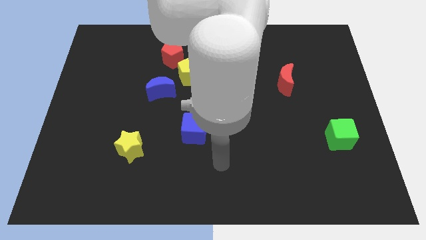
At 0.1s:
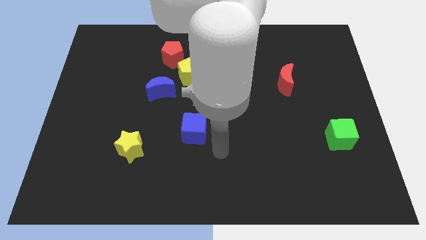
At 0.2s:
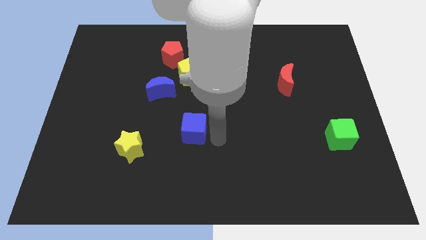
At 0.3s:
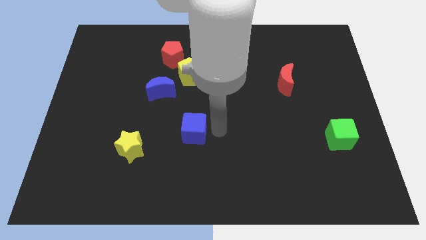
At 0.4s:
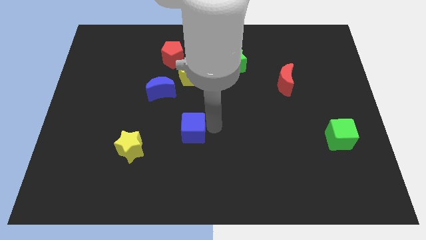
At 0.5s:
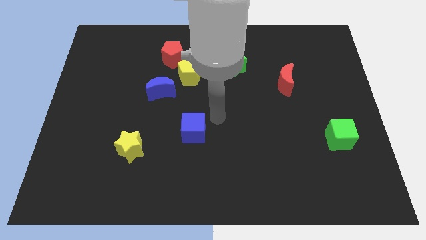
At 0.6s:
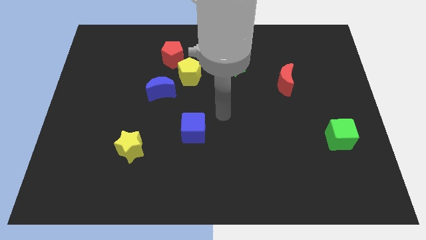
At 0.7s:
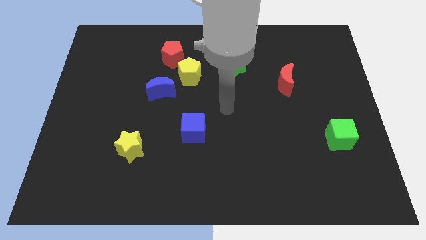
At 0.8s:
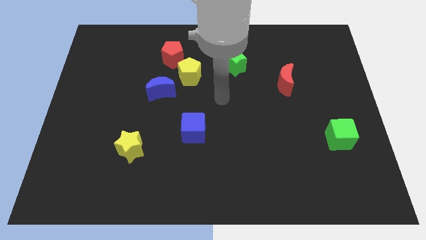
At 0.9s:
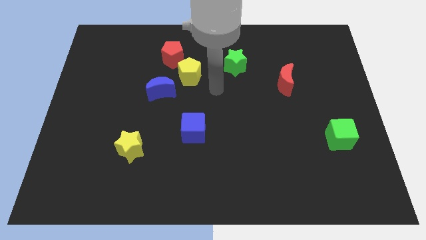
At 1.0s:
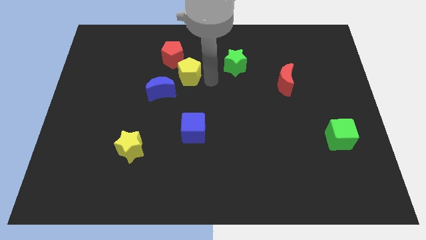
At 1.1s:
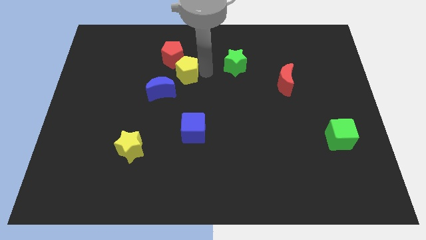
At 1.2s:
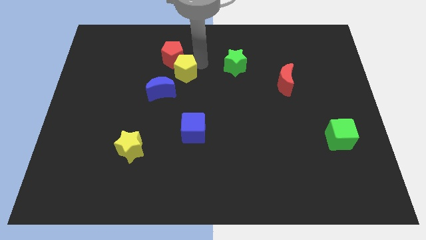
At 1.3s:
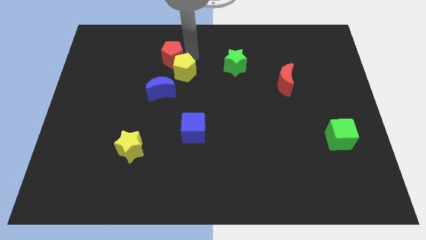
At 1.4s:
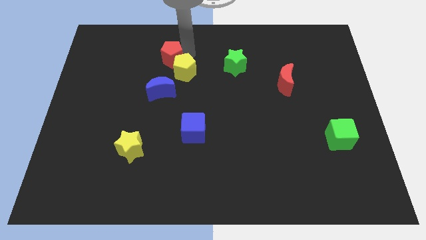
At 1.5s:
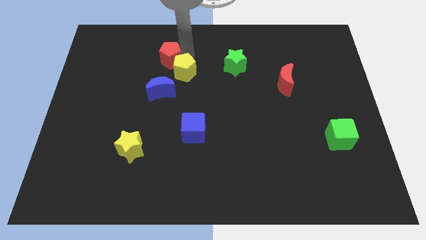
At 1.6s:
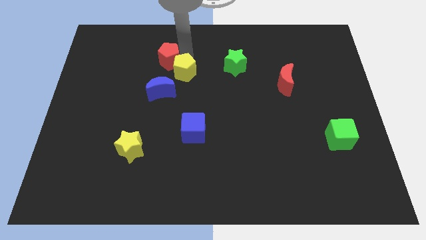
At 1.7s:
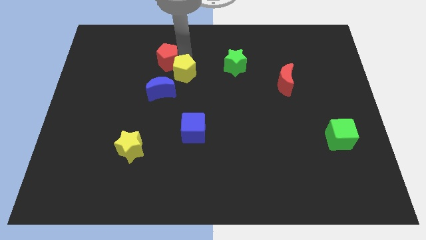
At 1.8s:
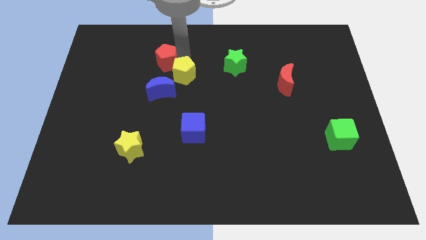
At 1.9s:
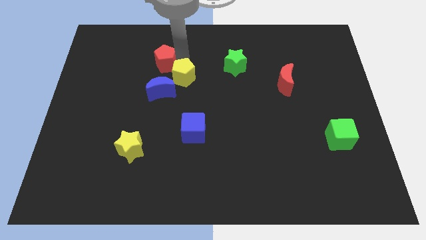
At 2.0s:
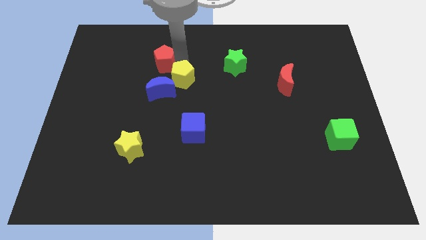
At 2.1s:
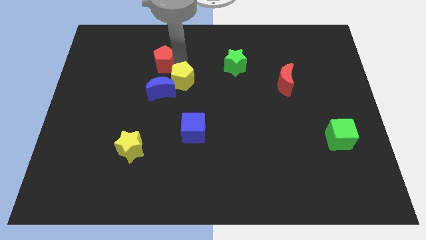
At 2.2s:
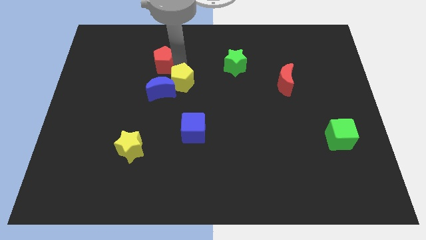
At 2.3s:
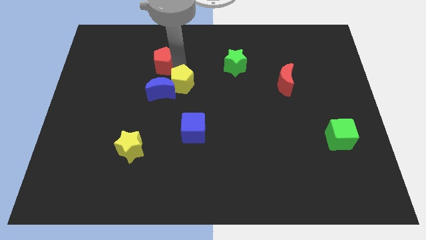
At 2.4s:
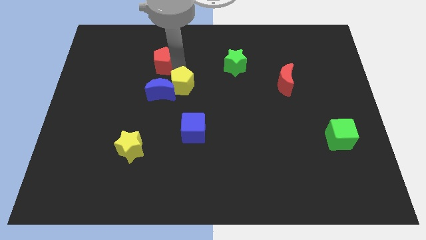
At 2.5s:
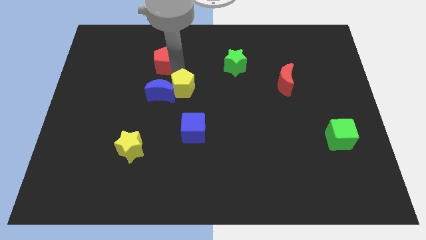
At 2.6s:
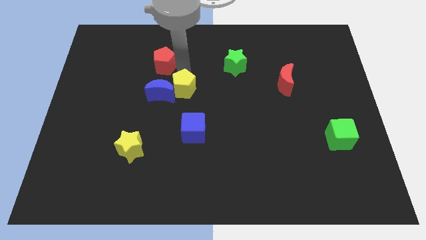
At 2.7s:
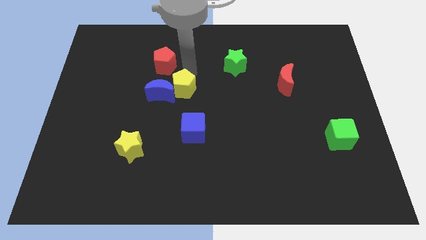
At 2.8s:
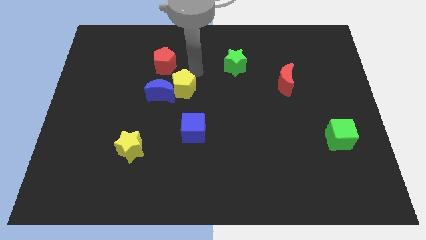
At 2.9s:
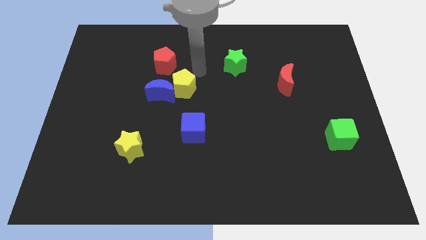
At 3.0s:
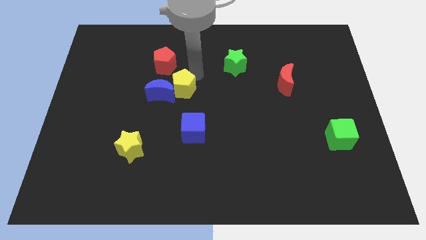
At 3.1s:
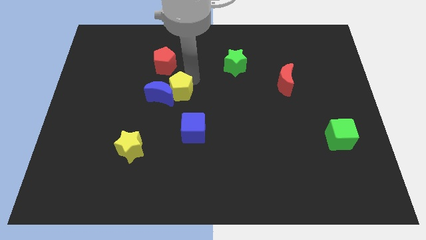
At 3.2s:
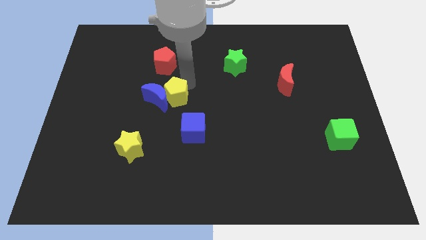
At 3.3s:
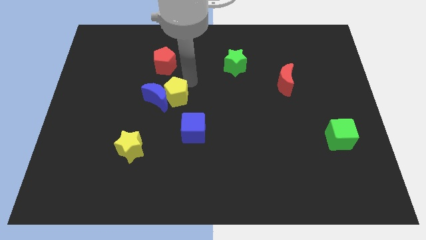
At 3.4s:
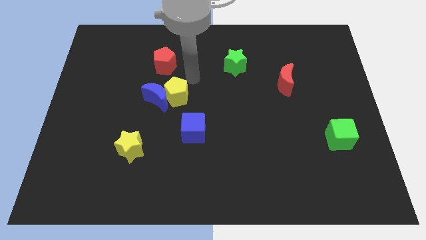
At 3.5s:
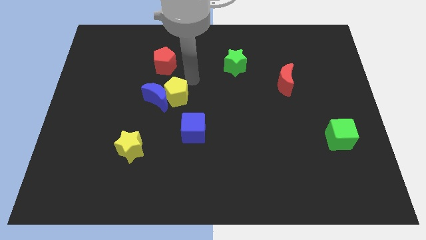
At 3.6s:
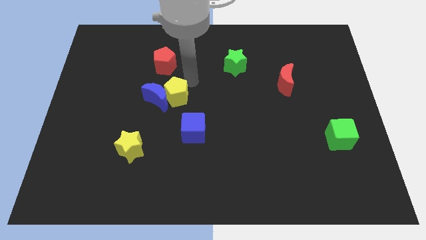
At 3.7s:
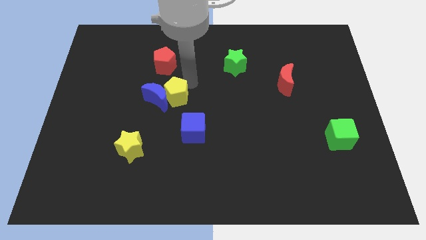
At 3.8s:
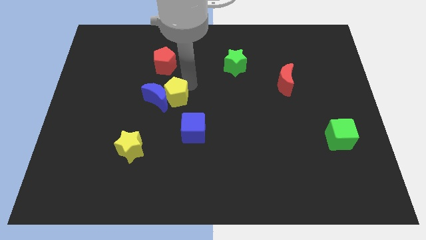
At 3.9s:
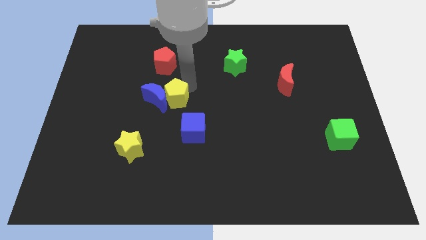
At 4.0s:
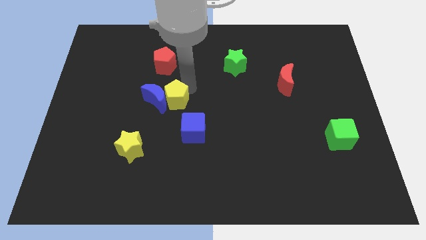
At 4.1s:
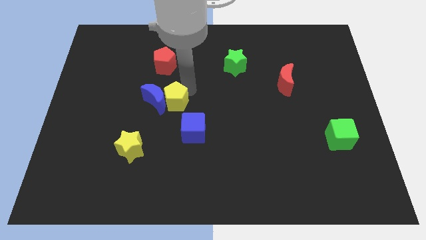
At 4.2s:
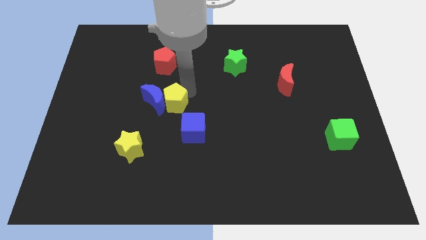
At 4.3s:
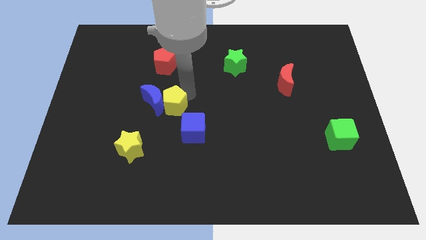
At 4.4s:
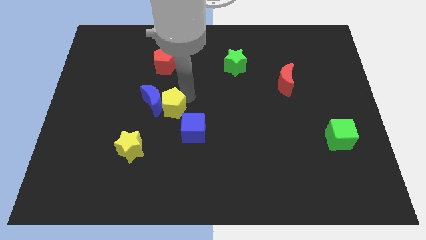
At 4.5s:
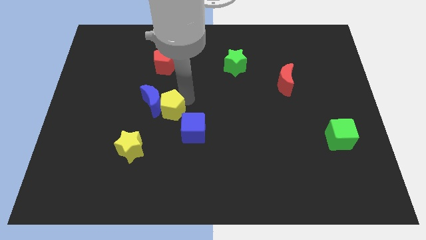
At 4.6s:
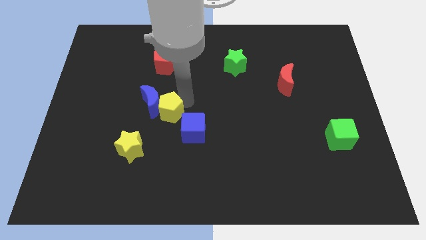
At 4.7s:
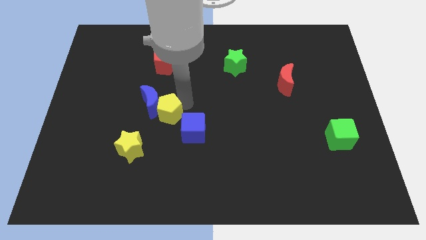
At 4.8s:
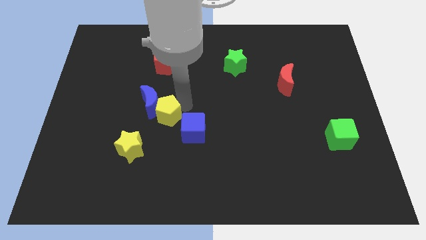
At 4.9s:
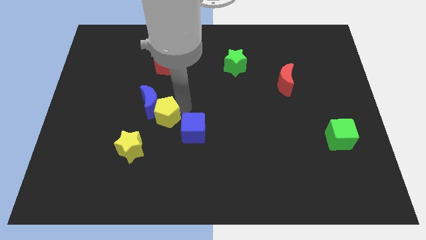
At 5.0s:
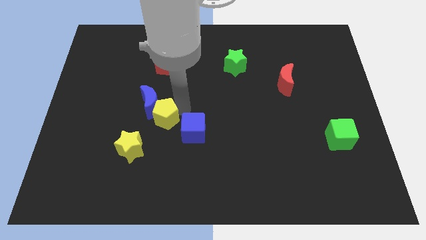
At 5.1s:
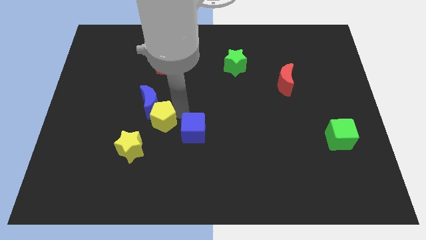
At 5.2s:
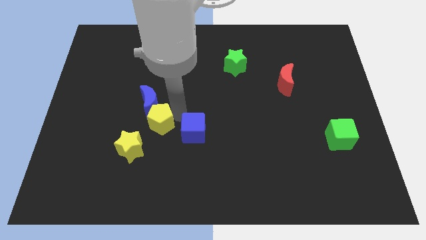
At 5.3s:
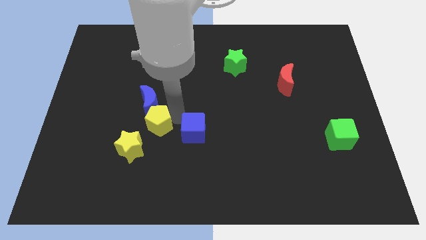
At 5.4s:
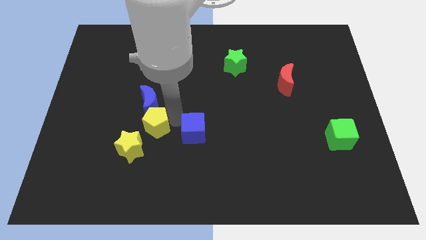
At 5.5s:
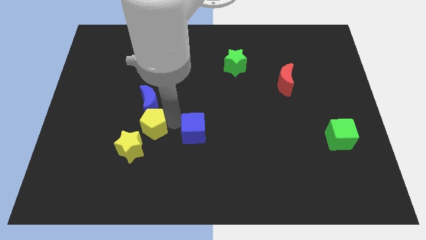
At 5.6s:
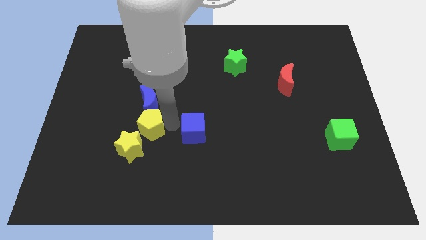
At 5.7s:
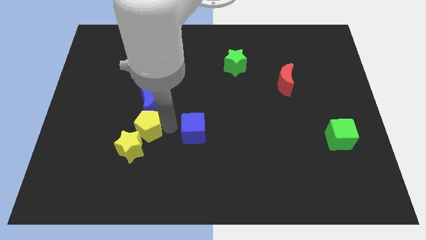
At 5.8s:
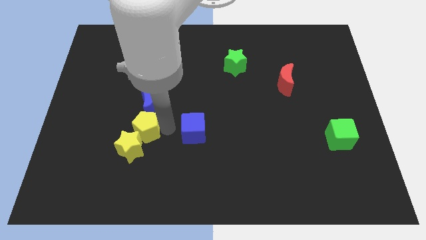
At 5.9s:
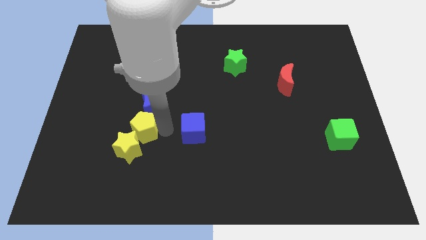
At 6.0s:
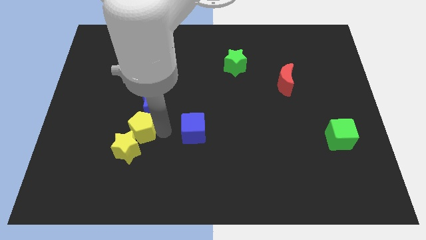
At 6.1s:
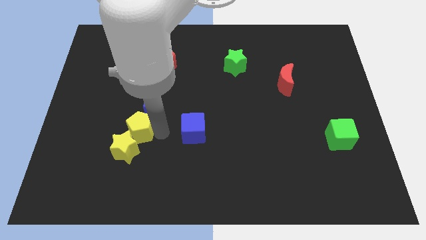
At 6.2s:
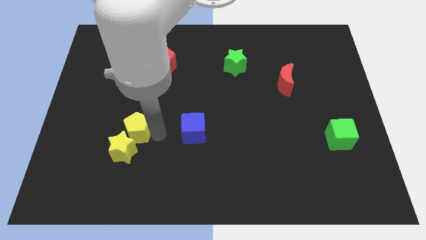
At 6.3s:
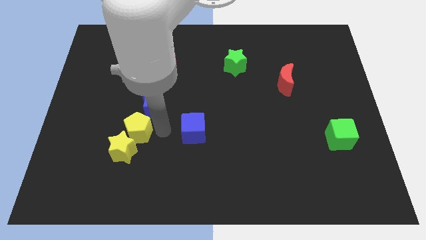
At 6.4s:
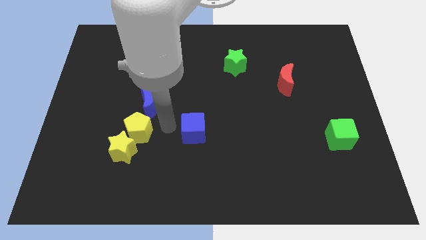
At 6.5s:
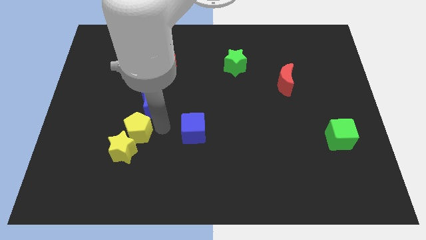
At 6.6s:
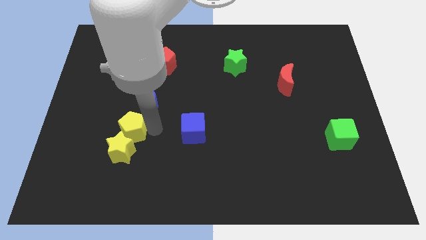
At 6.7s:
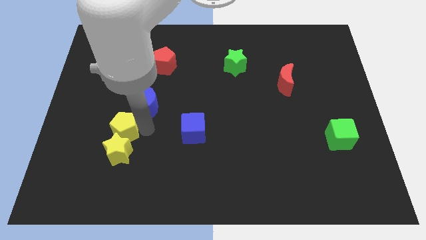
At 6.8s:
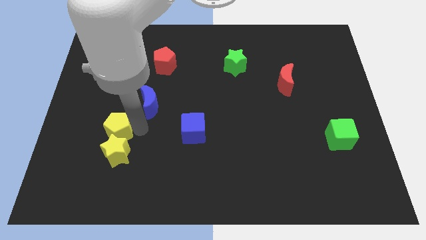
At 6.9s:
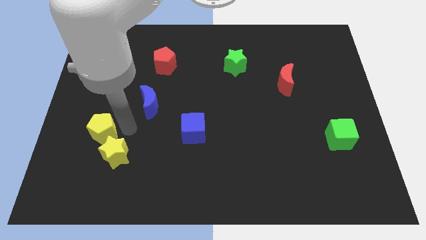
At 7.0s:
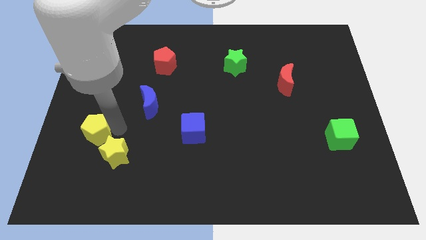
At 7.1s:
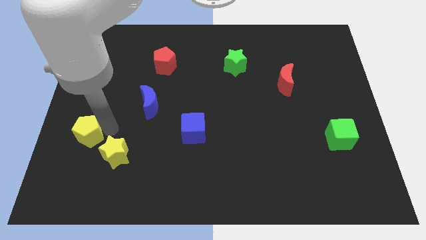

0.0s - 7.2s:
move the yellow pentagon to the left side of the yellow star

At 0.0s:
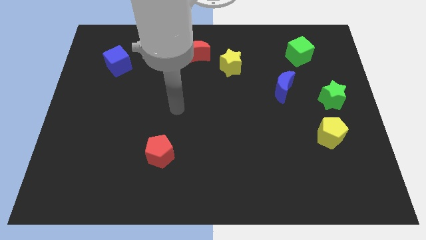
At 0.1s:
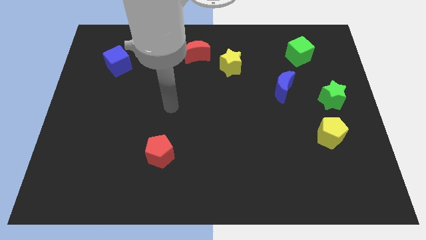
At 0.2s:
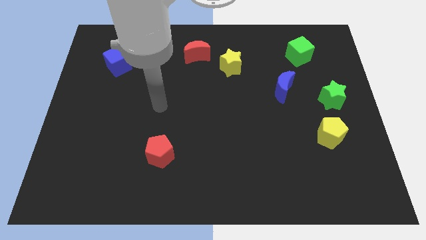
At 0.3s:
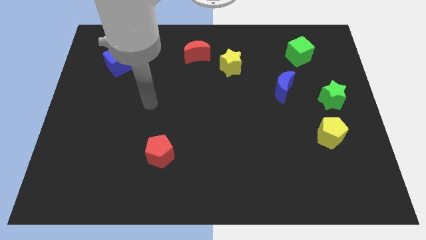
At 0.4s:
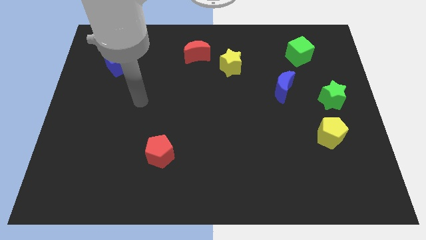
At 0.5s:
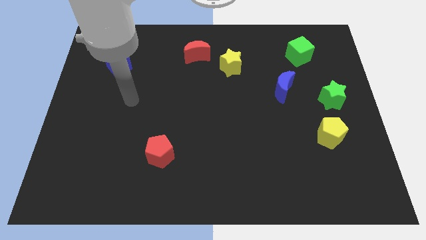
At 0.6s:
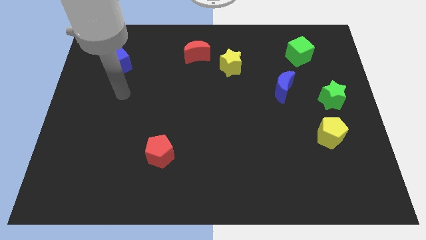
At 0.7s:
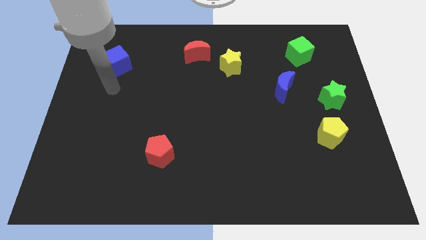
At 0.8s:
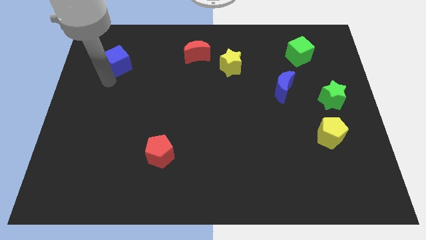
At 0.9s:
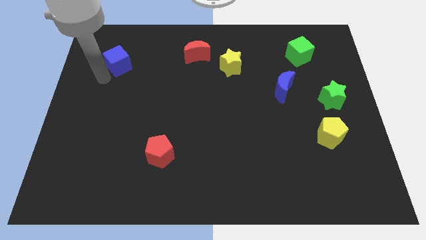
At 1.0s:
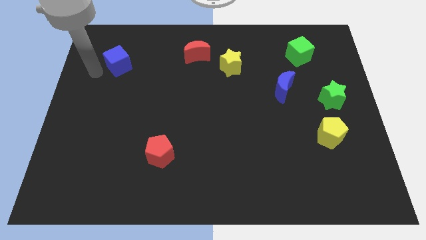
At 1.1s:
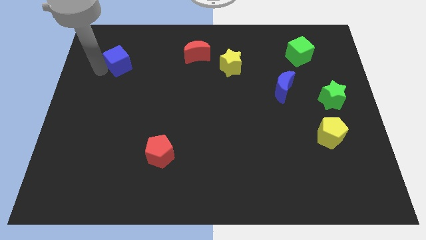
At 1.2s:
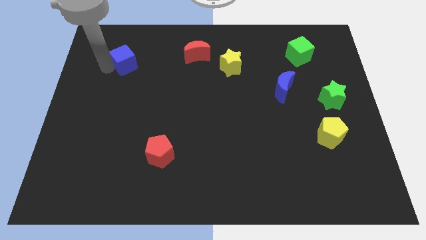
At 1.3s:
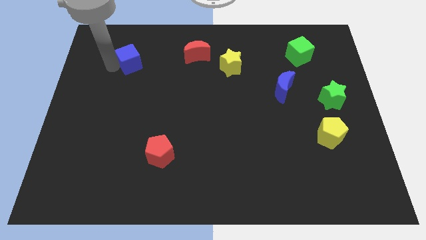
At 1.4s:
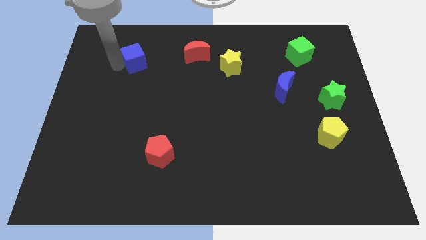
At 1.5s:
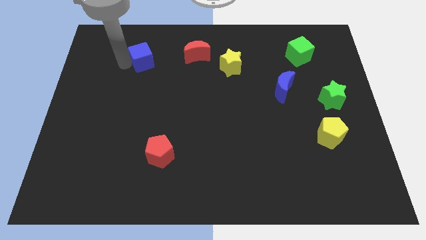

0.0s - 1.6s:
push the blue cube to the left side of the red moon
